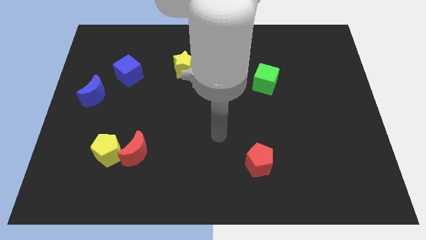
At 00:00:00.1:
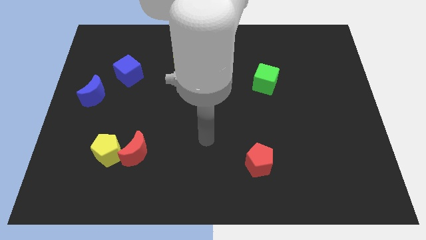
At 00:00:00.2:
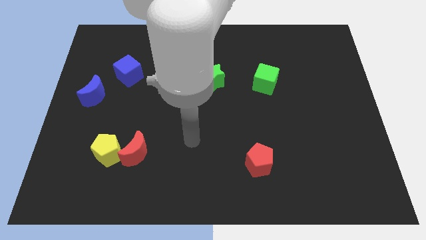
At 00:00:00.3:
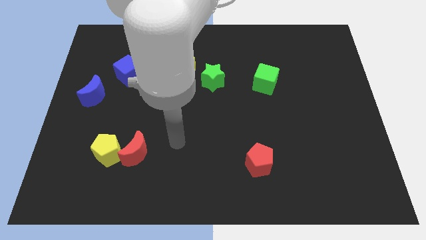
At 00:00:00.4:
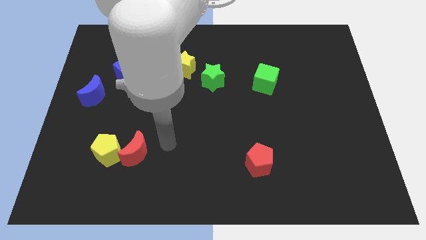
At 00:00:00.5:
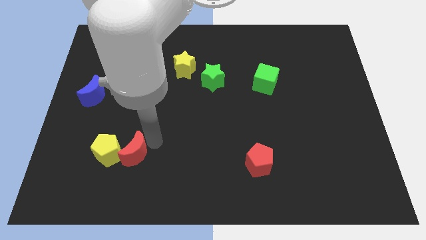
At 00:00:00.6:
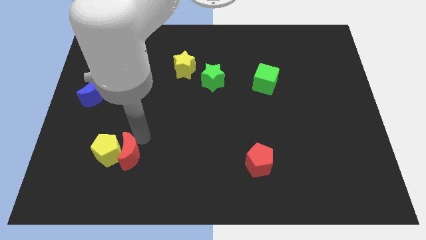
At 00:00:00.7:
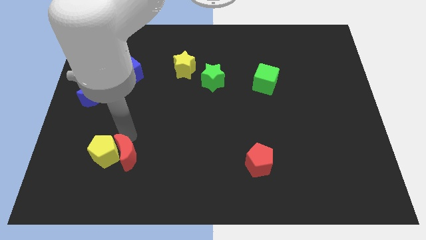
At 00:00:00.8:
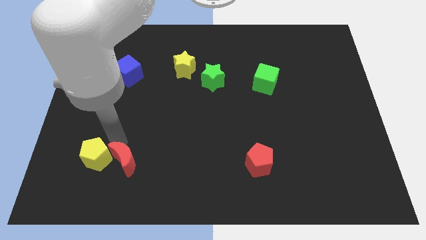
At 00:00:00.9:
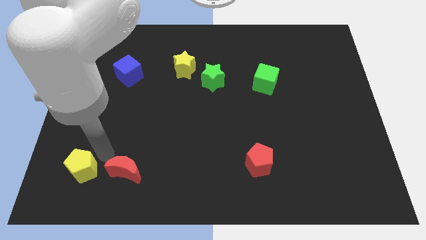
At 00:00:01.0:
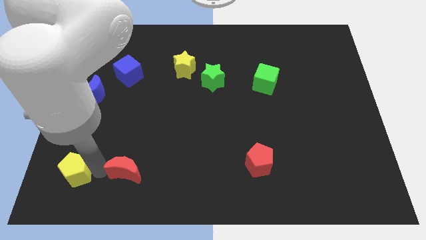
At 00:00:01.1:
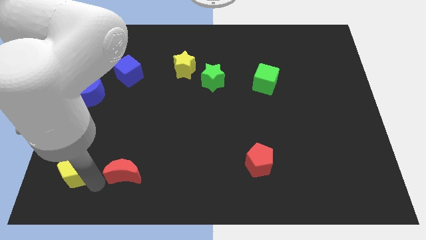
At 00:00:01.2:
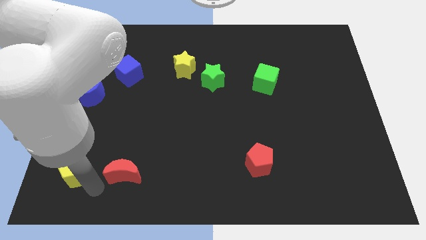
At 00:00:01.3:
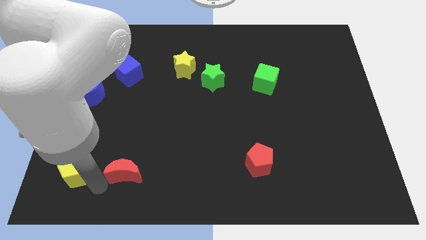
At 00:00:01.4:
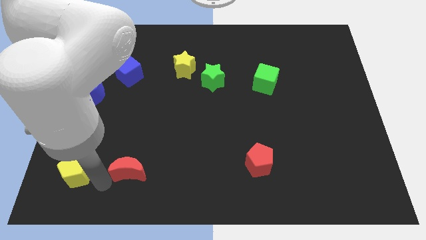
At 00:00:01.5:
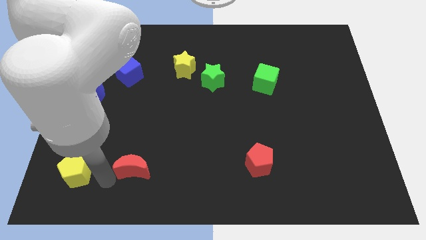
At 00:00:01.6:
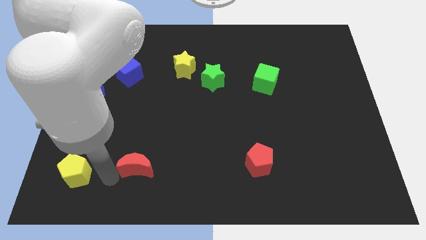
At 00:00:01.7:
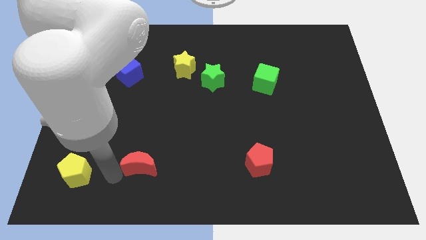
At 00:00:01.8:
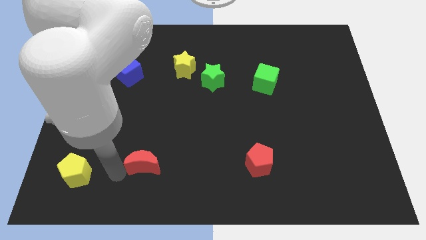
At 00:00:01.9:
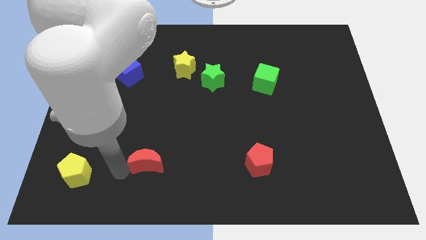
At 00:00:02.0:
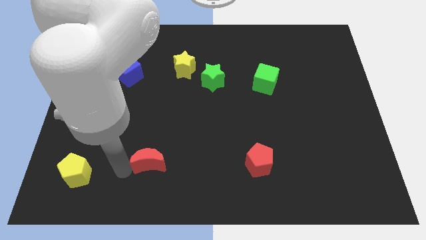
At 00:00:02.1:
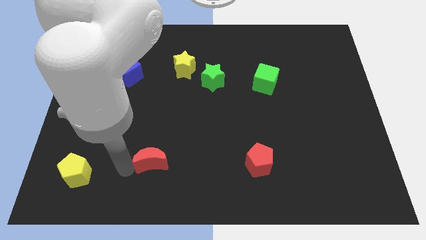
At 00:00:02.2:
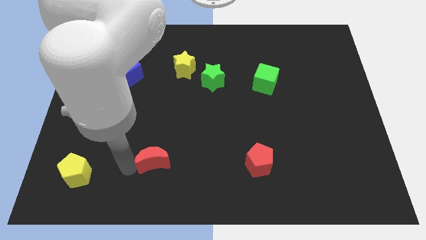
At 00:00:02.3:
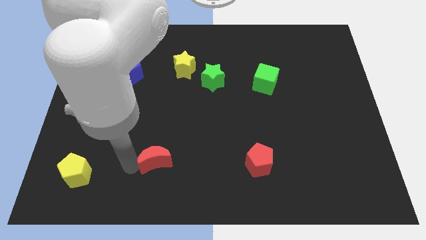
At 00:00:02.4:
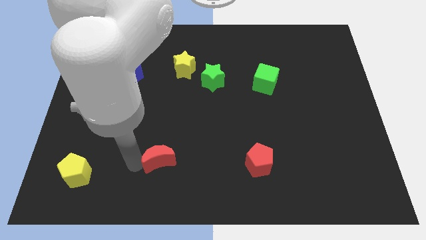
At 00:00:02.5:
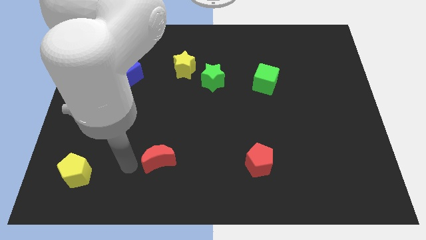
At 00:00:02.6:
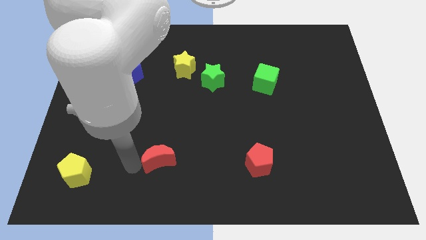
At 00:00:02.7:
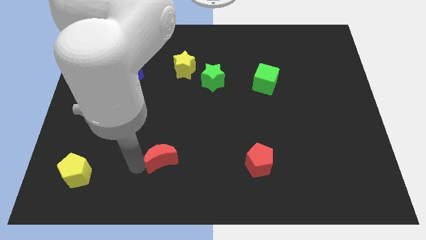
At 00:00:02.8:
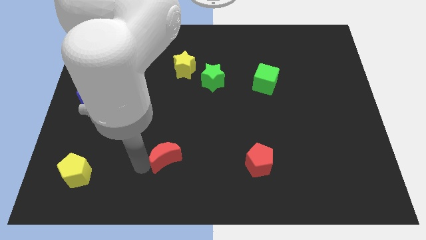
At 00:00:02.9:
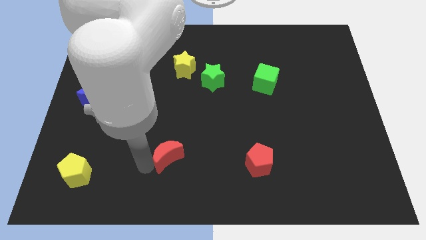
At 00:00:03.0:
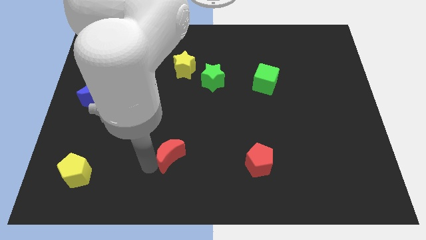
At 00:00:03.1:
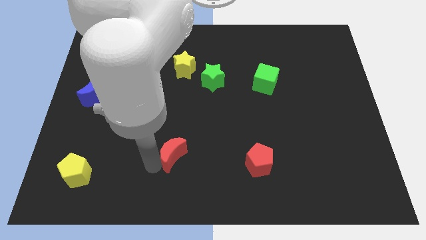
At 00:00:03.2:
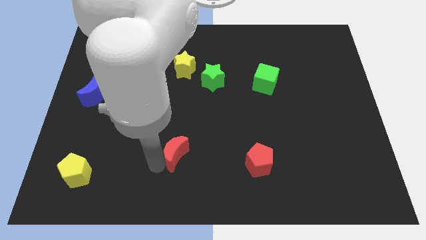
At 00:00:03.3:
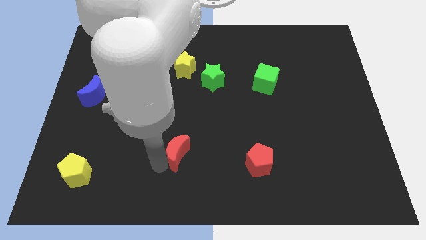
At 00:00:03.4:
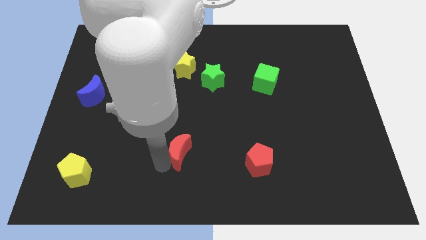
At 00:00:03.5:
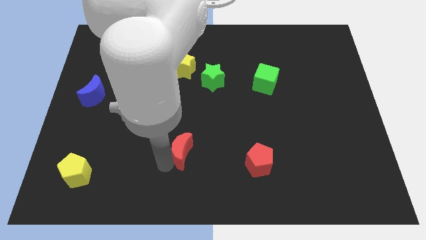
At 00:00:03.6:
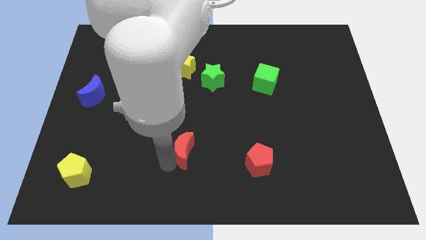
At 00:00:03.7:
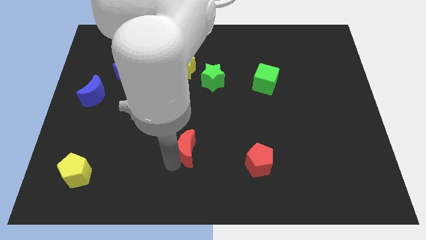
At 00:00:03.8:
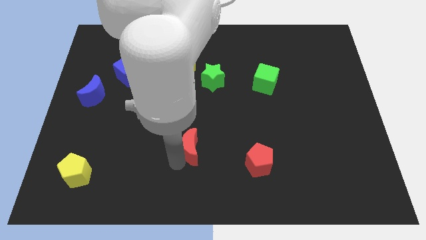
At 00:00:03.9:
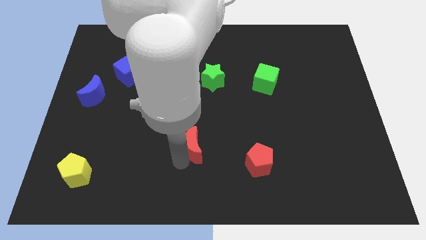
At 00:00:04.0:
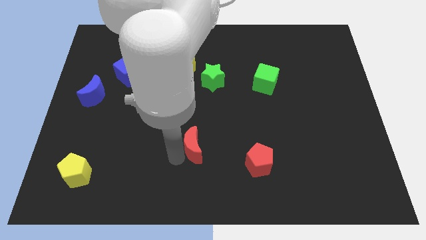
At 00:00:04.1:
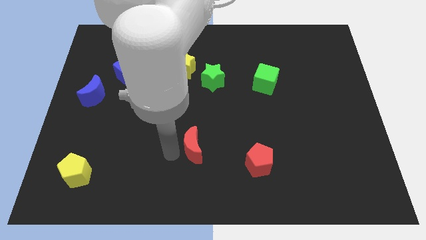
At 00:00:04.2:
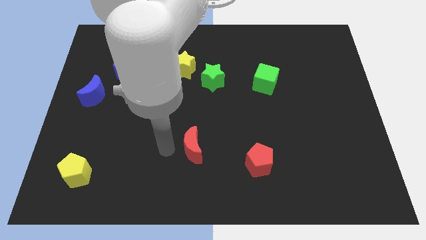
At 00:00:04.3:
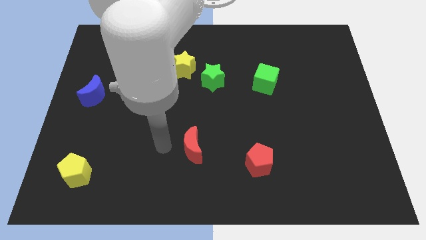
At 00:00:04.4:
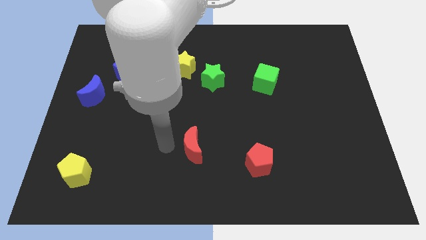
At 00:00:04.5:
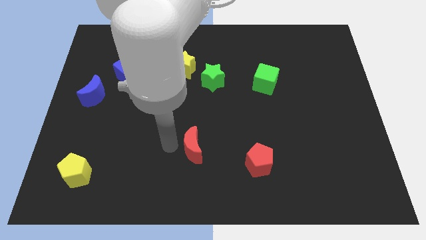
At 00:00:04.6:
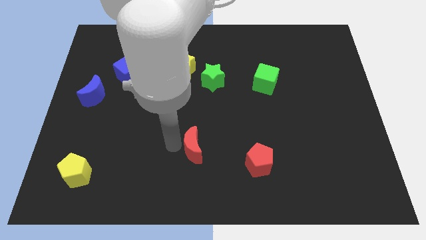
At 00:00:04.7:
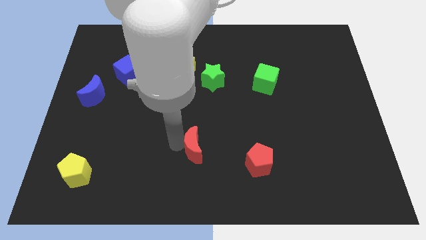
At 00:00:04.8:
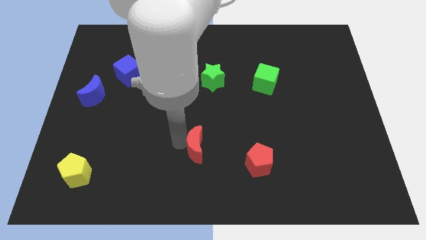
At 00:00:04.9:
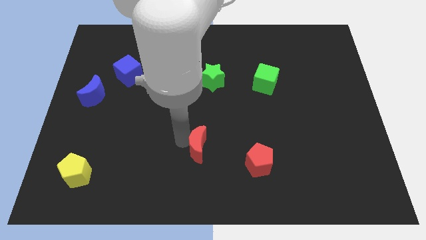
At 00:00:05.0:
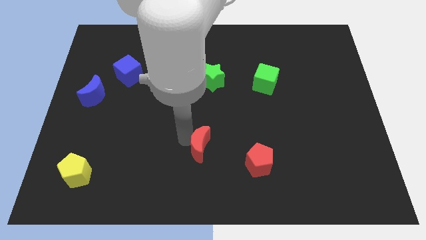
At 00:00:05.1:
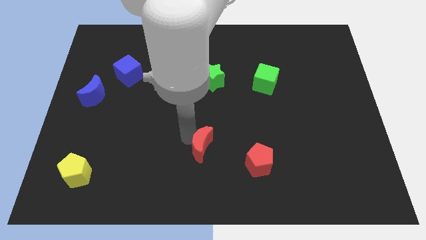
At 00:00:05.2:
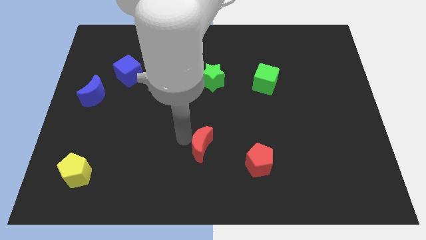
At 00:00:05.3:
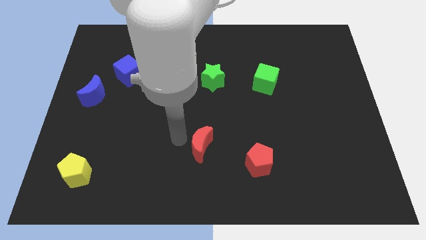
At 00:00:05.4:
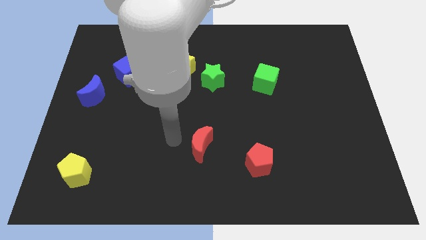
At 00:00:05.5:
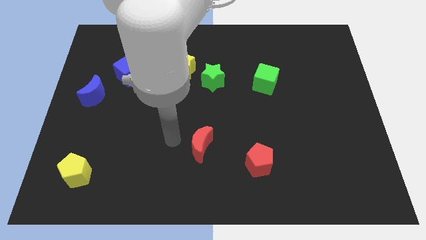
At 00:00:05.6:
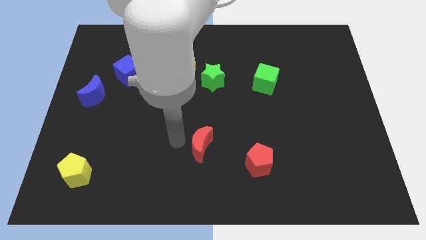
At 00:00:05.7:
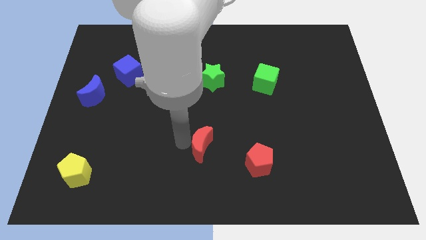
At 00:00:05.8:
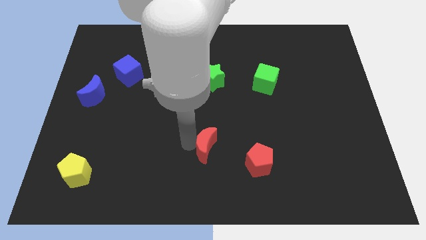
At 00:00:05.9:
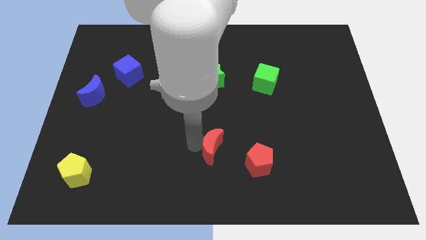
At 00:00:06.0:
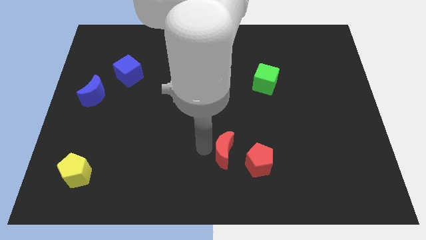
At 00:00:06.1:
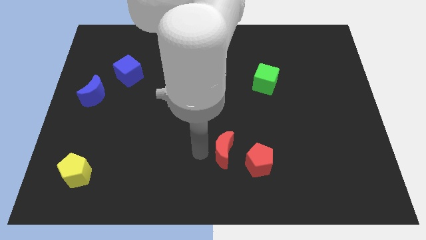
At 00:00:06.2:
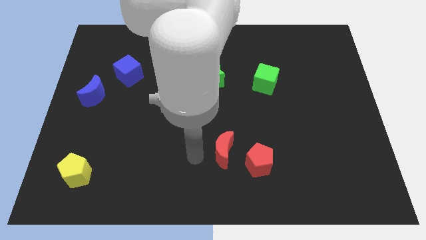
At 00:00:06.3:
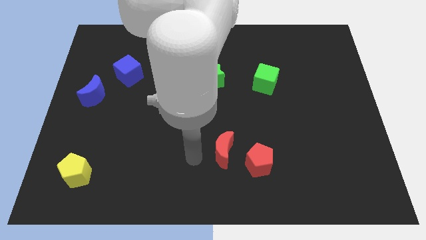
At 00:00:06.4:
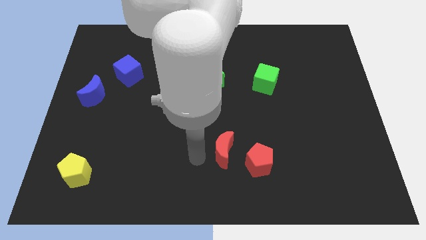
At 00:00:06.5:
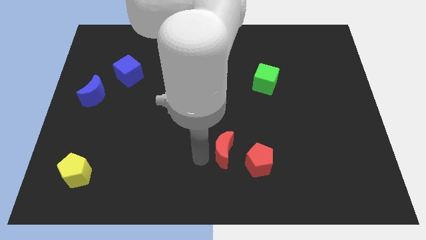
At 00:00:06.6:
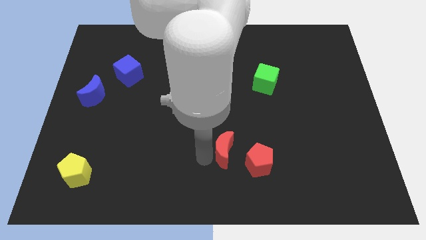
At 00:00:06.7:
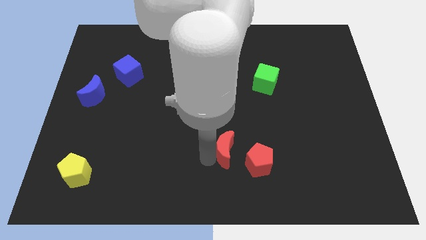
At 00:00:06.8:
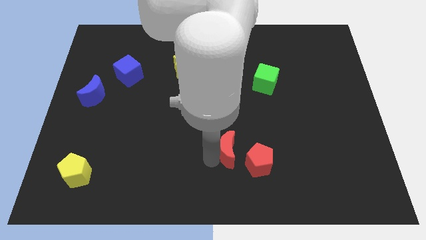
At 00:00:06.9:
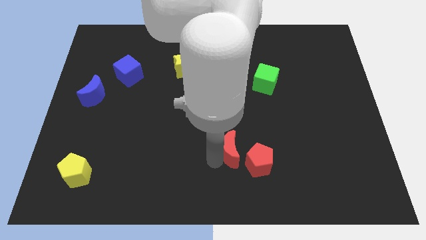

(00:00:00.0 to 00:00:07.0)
move the red moon right

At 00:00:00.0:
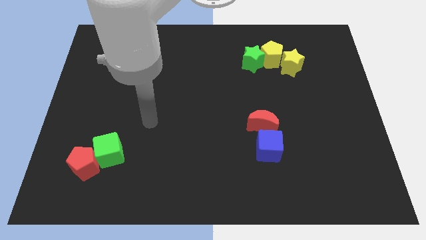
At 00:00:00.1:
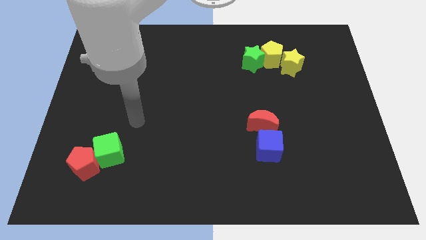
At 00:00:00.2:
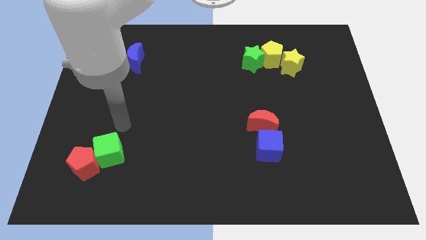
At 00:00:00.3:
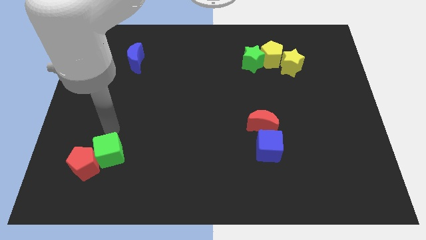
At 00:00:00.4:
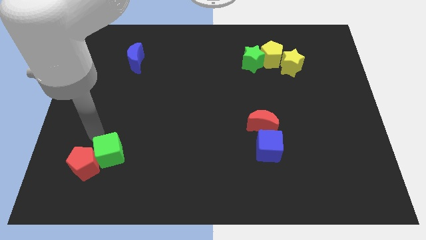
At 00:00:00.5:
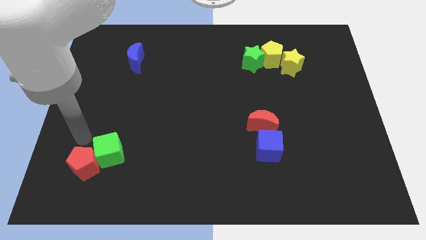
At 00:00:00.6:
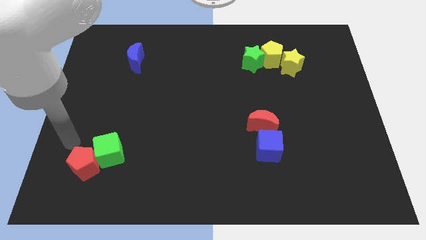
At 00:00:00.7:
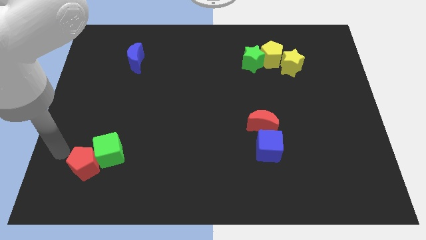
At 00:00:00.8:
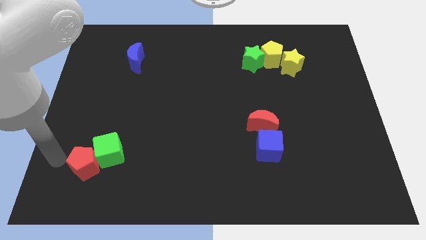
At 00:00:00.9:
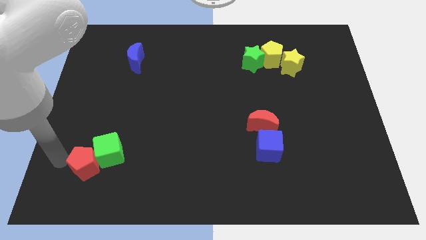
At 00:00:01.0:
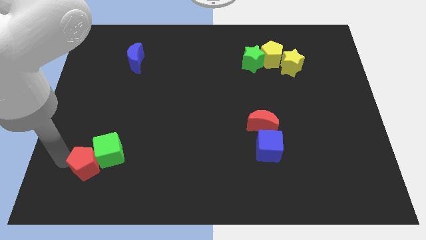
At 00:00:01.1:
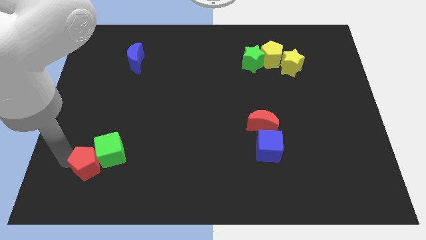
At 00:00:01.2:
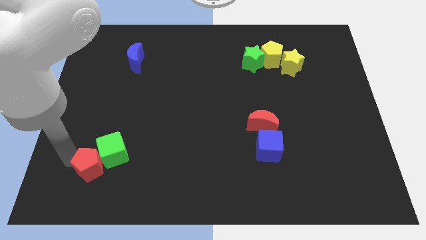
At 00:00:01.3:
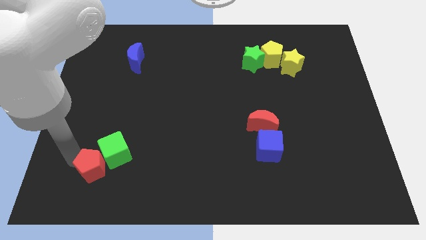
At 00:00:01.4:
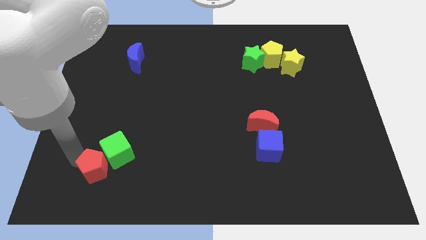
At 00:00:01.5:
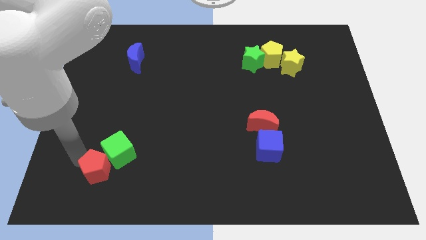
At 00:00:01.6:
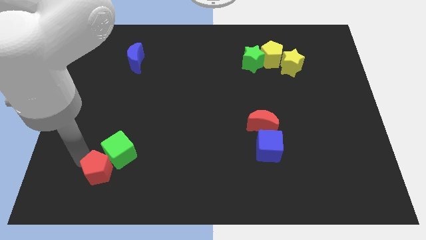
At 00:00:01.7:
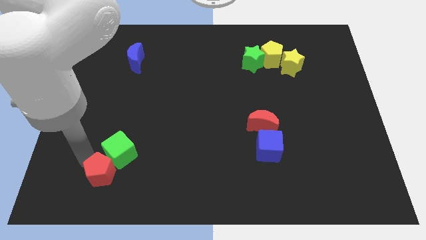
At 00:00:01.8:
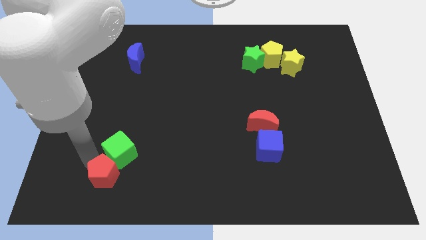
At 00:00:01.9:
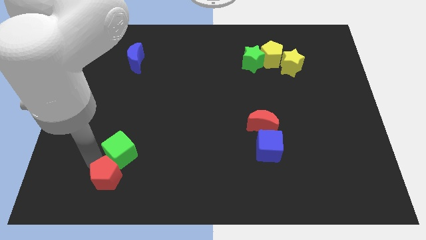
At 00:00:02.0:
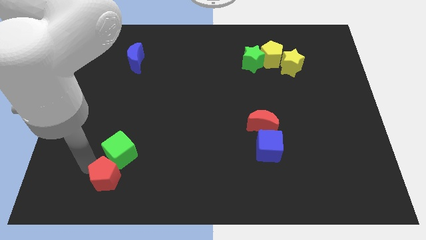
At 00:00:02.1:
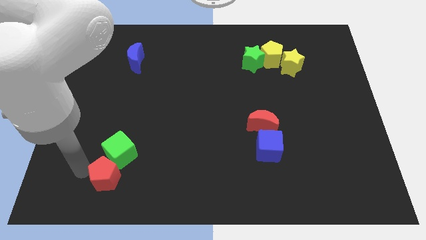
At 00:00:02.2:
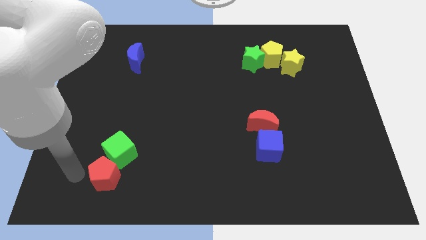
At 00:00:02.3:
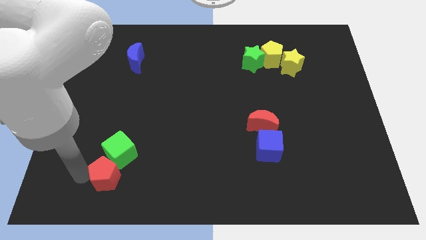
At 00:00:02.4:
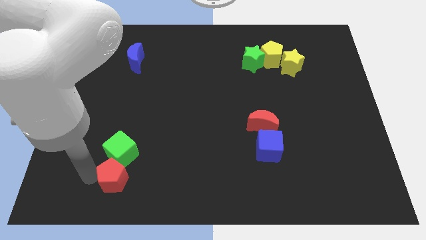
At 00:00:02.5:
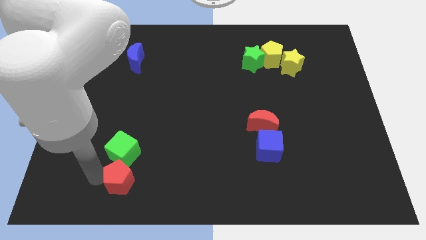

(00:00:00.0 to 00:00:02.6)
push the red pentagon right somewhat
